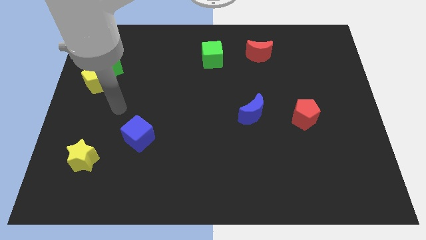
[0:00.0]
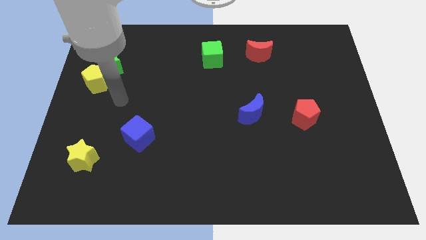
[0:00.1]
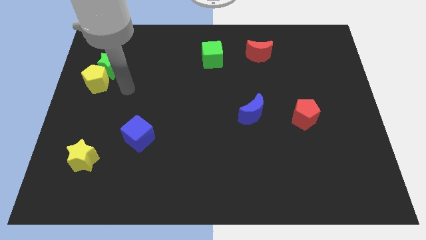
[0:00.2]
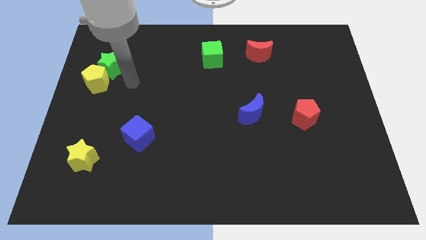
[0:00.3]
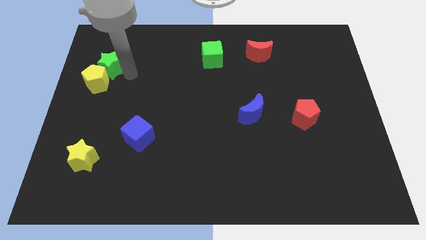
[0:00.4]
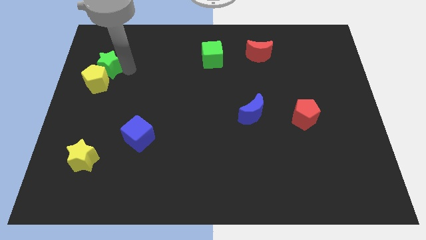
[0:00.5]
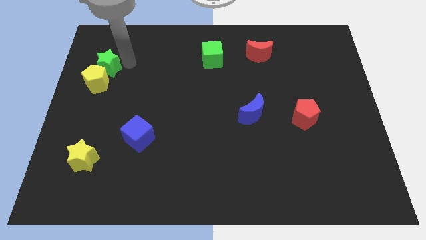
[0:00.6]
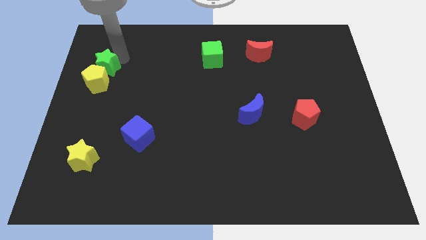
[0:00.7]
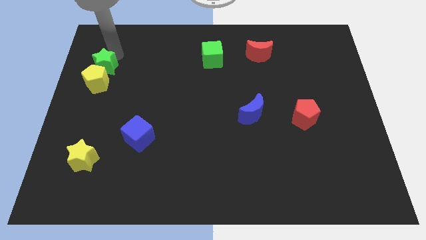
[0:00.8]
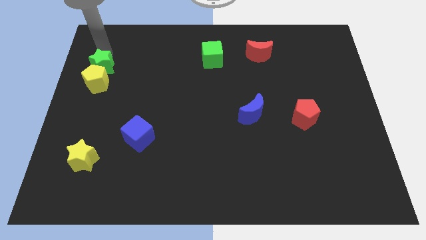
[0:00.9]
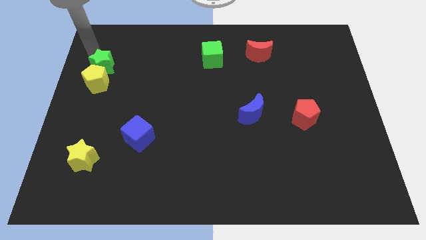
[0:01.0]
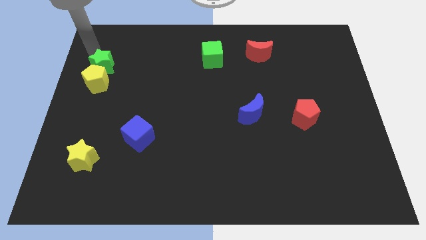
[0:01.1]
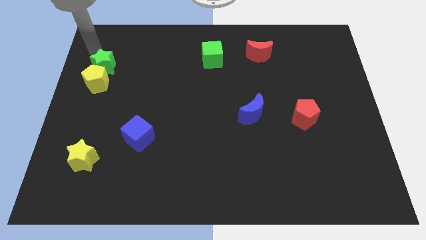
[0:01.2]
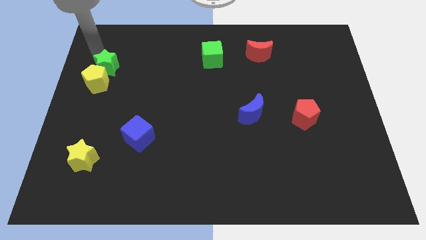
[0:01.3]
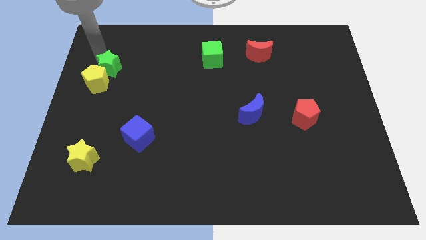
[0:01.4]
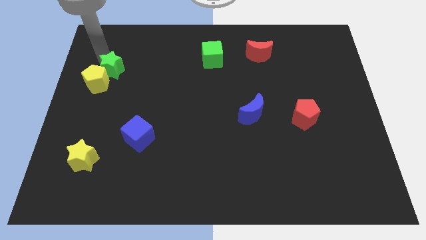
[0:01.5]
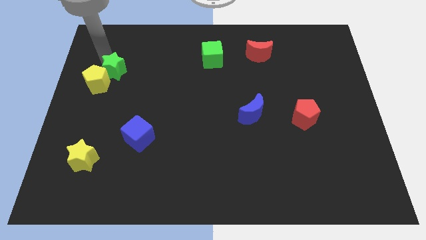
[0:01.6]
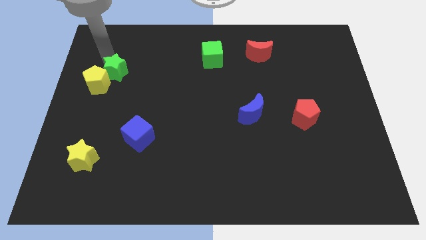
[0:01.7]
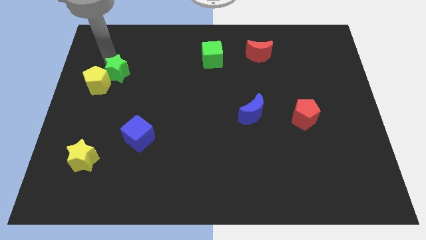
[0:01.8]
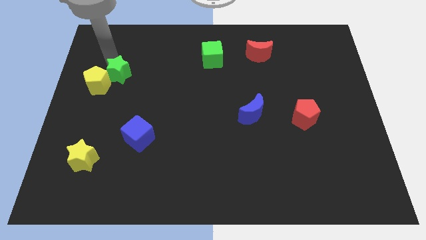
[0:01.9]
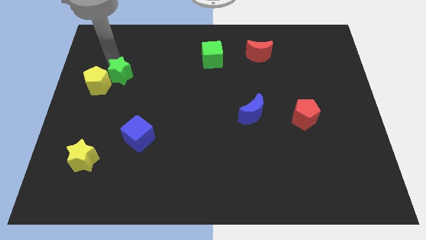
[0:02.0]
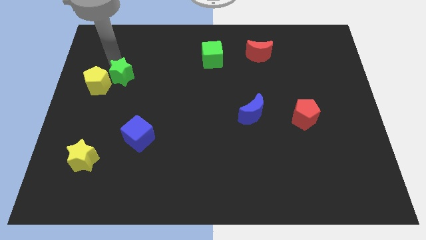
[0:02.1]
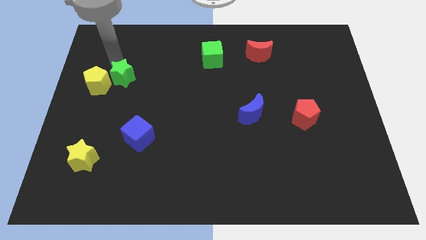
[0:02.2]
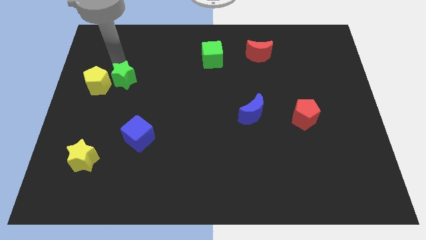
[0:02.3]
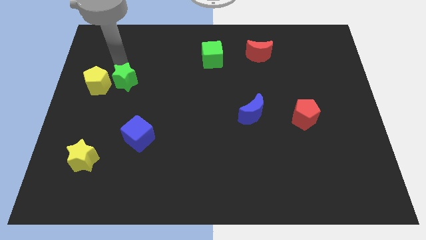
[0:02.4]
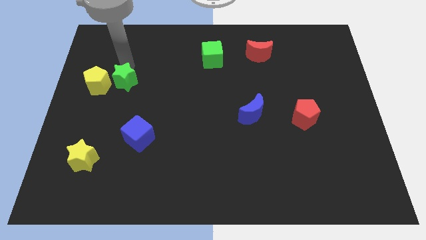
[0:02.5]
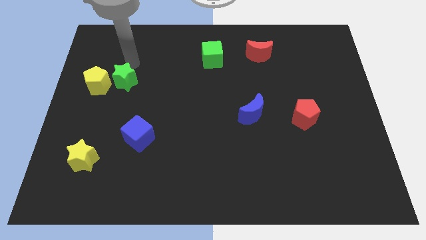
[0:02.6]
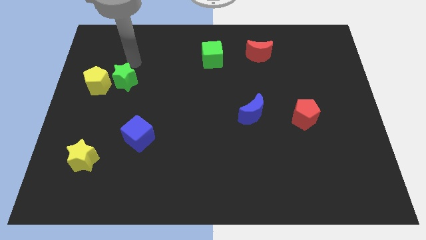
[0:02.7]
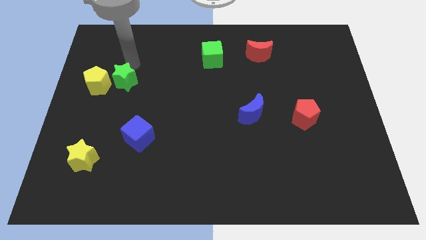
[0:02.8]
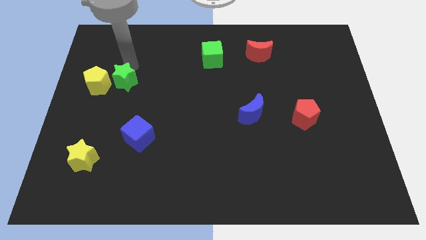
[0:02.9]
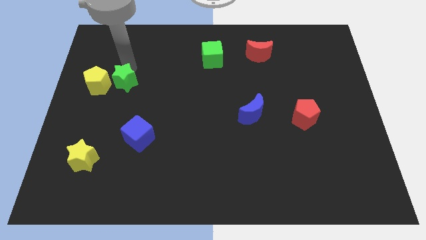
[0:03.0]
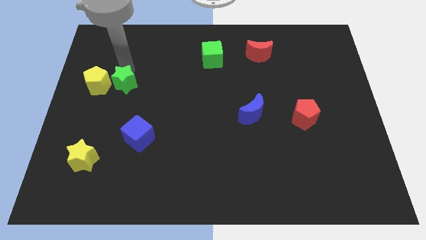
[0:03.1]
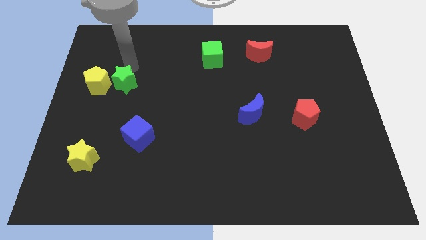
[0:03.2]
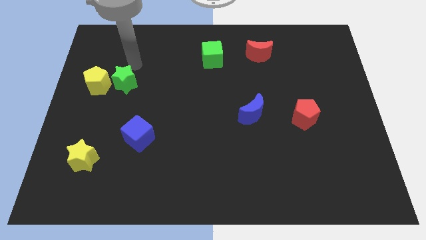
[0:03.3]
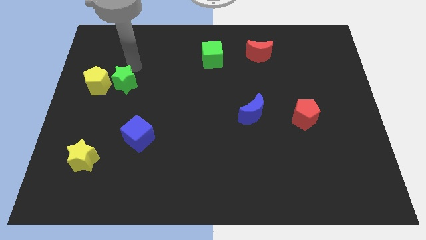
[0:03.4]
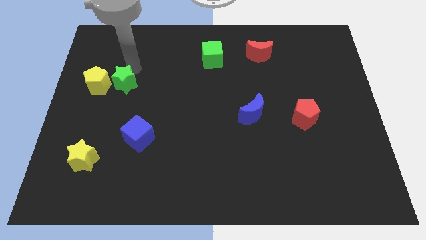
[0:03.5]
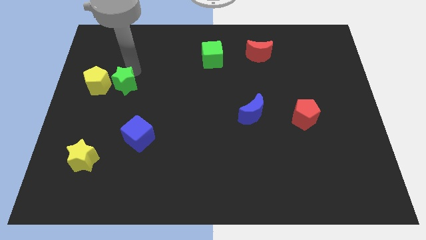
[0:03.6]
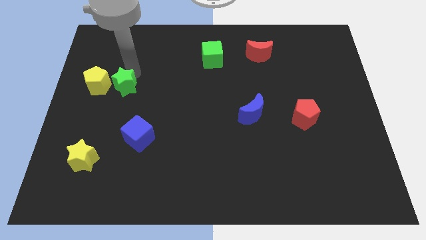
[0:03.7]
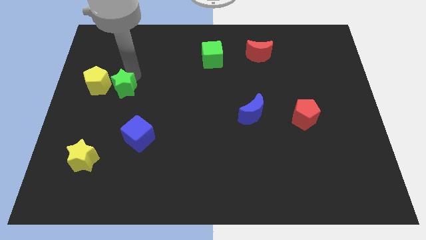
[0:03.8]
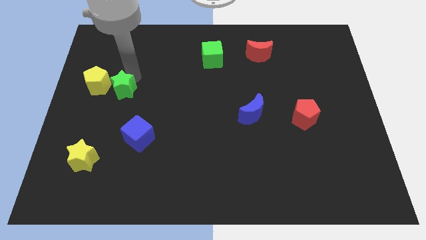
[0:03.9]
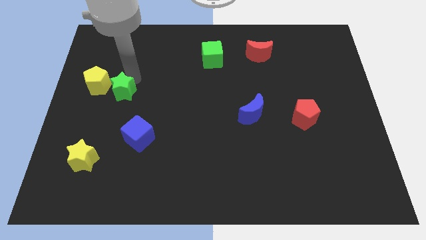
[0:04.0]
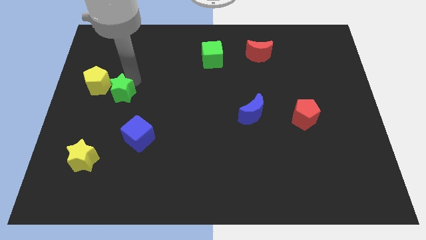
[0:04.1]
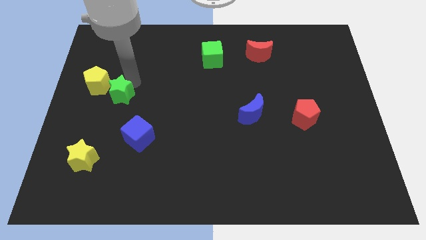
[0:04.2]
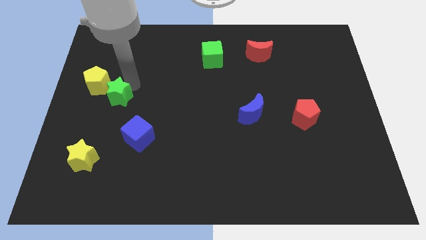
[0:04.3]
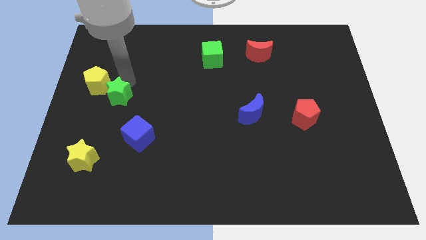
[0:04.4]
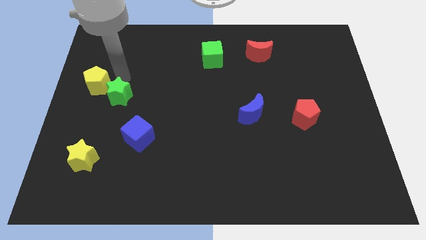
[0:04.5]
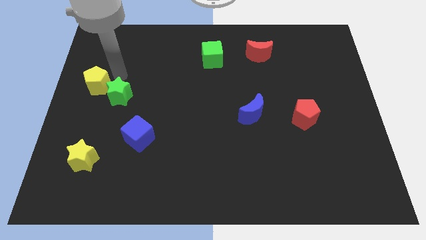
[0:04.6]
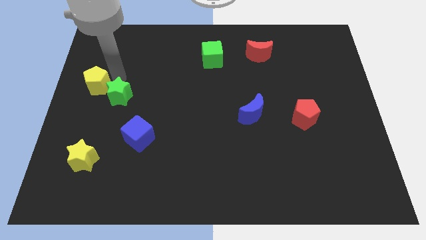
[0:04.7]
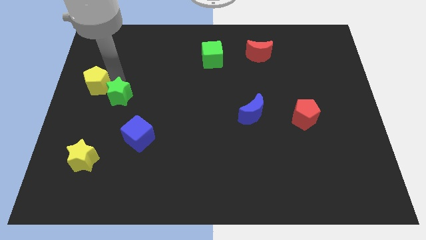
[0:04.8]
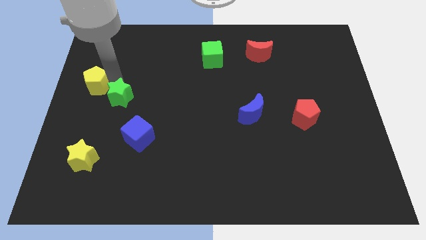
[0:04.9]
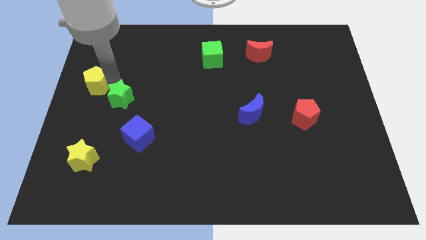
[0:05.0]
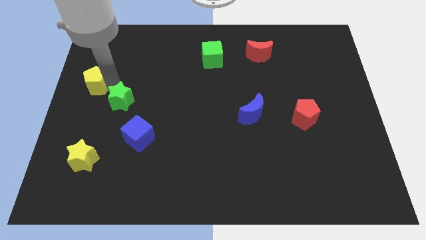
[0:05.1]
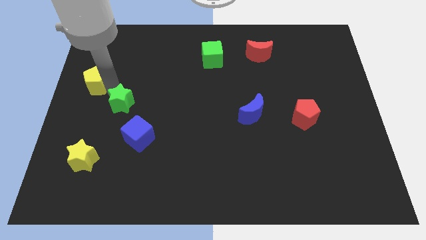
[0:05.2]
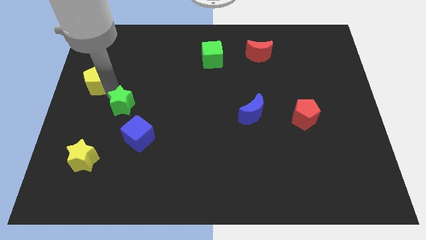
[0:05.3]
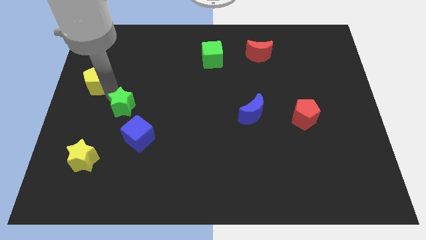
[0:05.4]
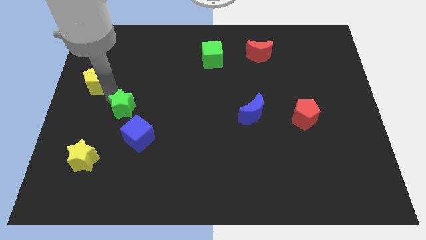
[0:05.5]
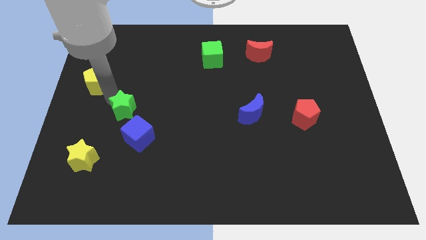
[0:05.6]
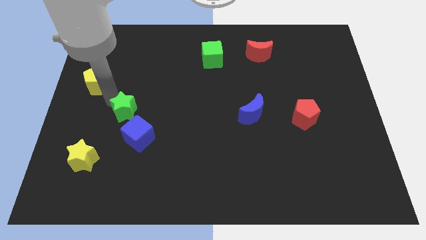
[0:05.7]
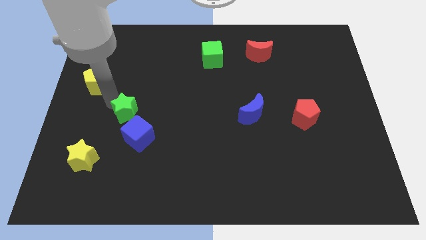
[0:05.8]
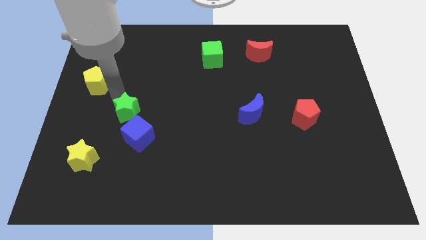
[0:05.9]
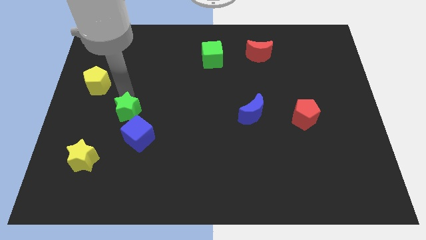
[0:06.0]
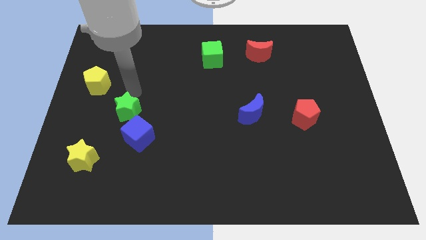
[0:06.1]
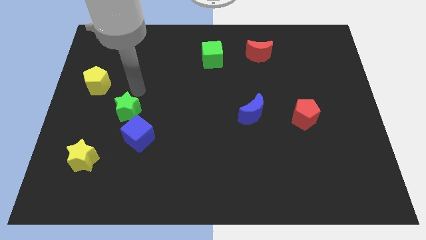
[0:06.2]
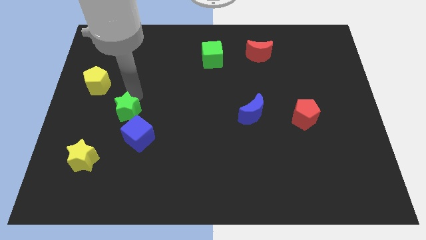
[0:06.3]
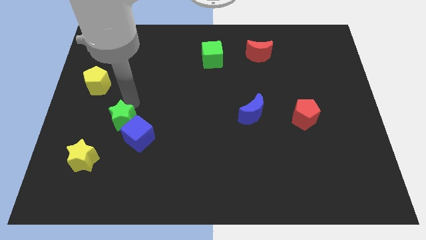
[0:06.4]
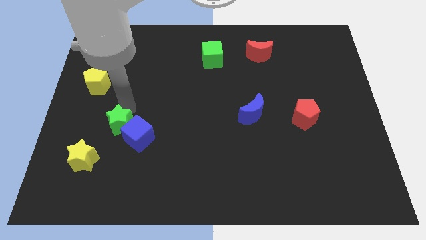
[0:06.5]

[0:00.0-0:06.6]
slide the green star to the top right side of the yellow star
